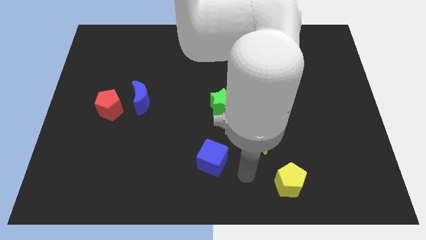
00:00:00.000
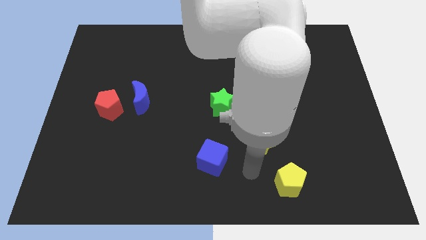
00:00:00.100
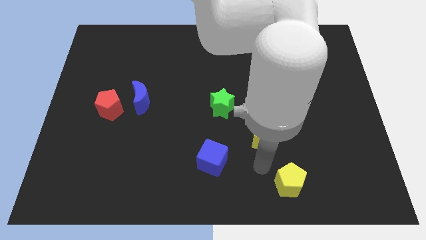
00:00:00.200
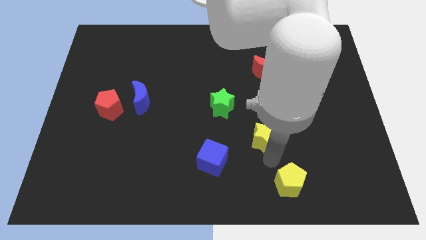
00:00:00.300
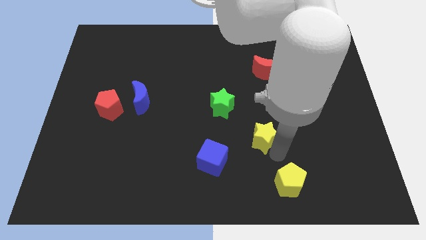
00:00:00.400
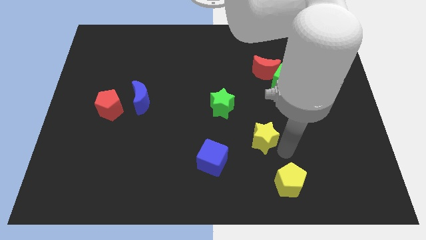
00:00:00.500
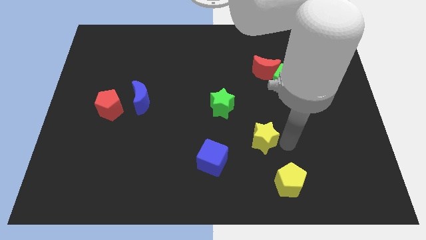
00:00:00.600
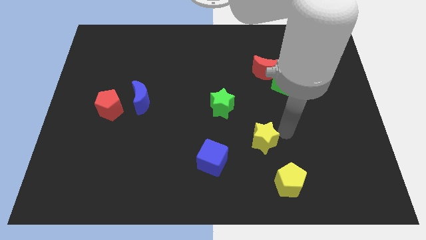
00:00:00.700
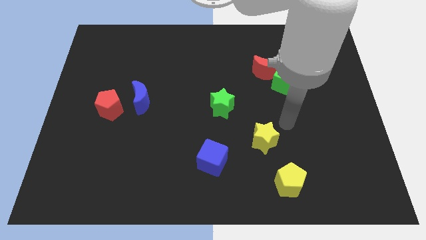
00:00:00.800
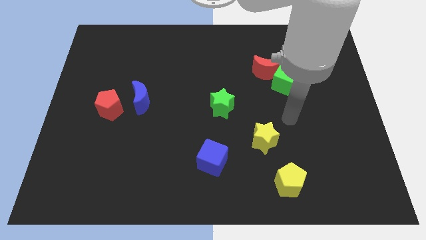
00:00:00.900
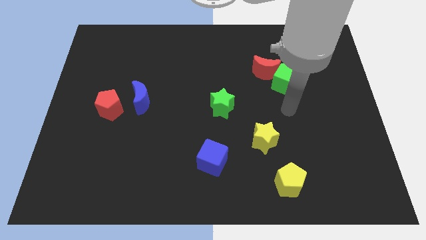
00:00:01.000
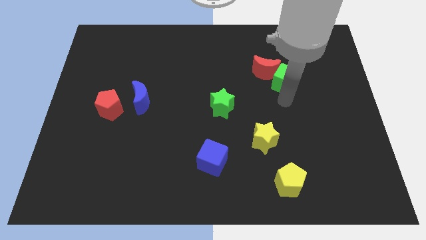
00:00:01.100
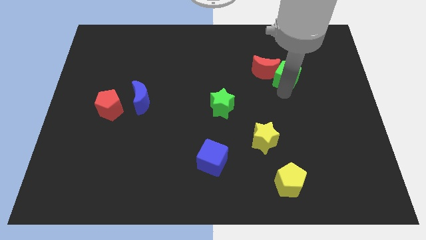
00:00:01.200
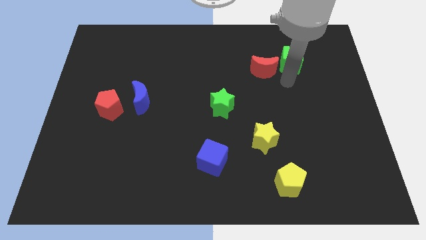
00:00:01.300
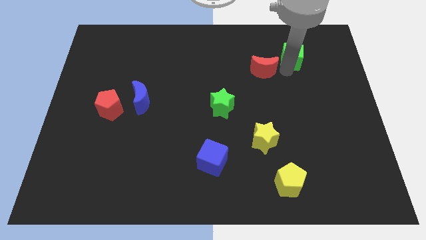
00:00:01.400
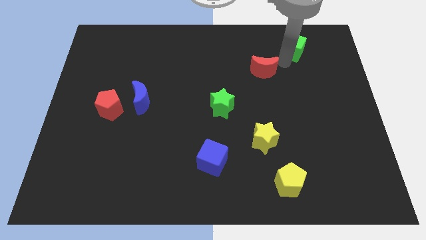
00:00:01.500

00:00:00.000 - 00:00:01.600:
pull the red moon apart from the green cube

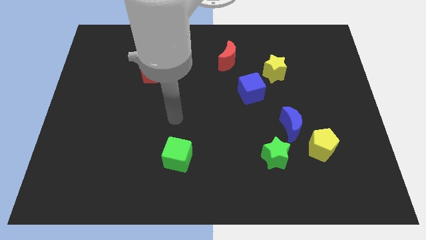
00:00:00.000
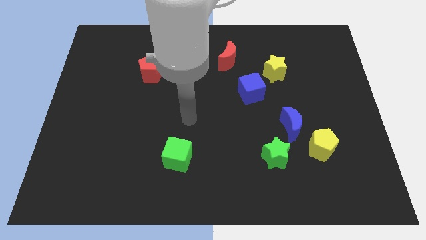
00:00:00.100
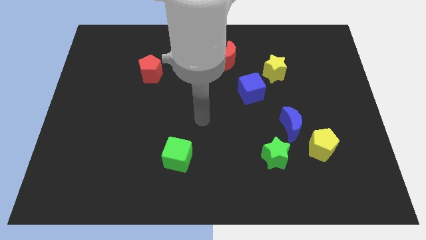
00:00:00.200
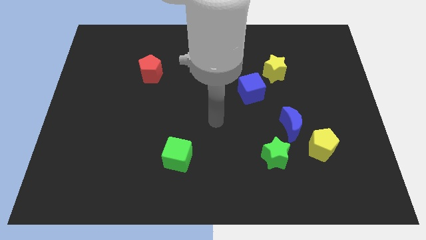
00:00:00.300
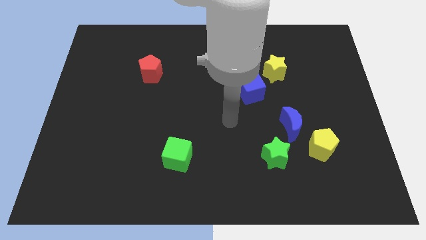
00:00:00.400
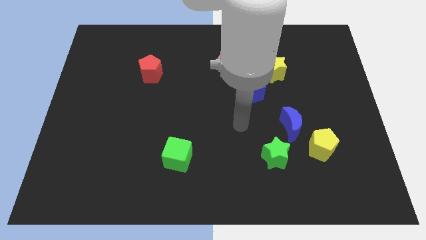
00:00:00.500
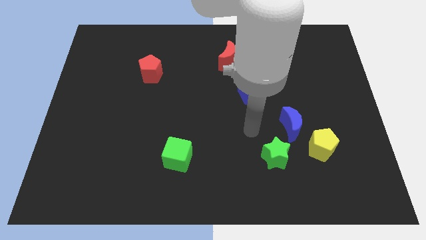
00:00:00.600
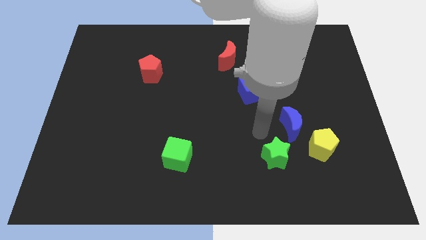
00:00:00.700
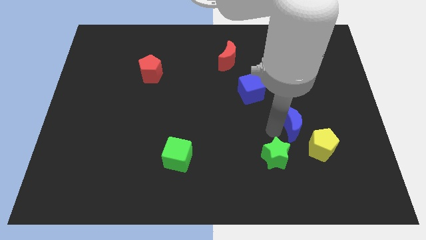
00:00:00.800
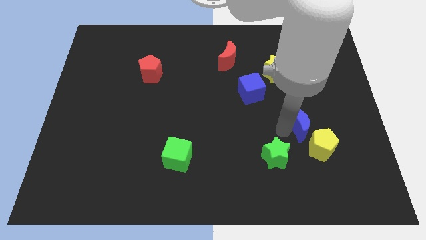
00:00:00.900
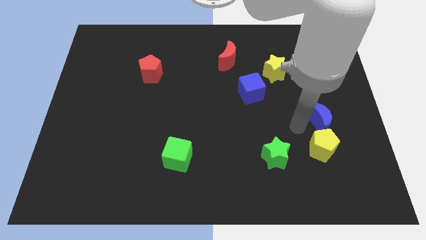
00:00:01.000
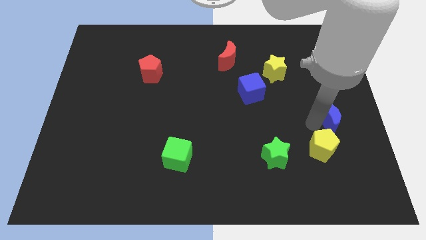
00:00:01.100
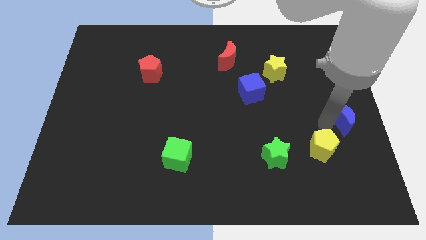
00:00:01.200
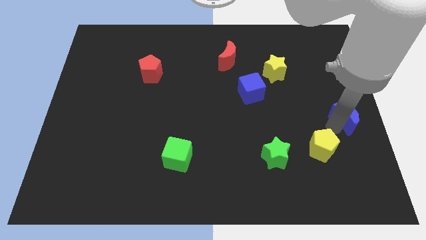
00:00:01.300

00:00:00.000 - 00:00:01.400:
pull the yellow pentagon apart from the blue moon

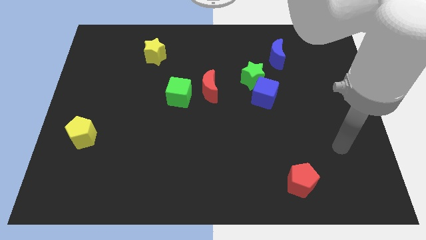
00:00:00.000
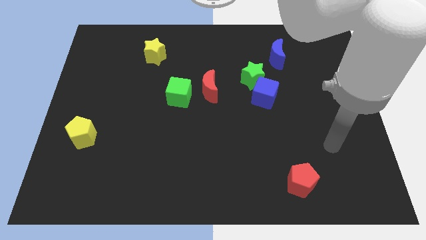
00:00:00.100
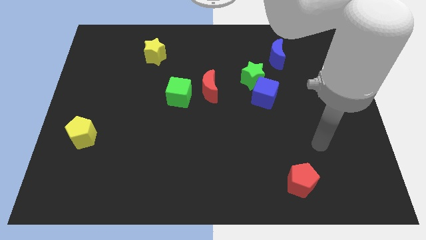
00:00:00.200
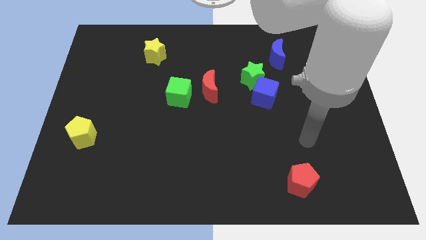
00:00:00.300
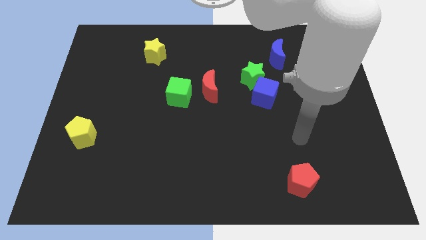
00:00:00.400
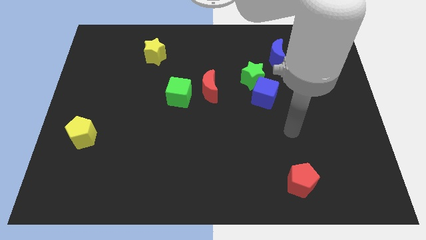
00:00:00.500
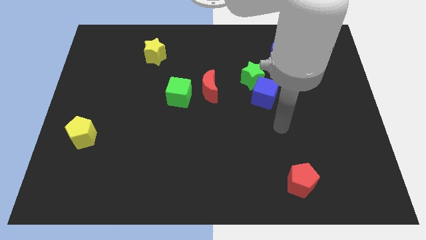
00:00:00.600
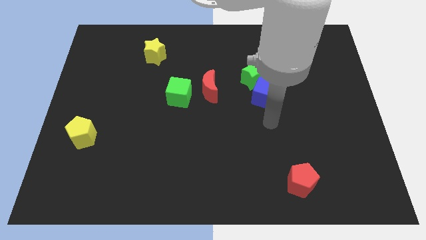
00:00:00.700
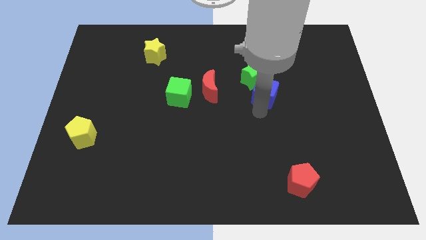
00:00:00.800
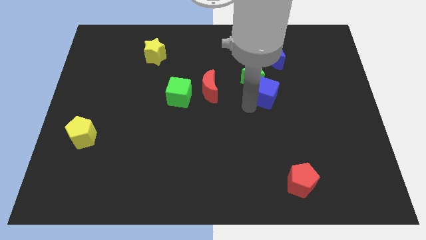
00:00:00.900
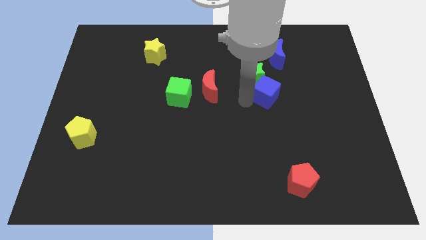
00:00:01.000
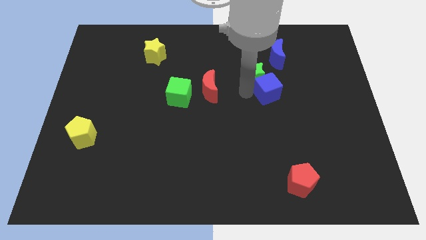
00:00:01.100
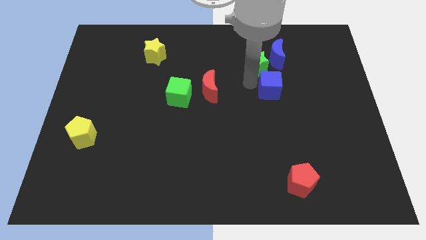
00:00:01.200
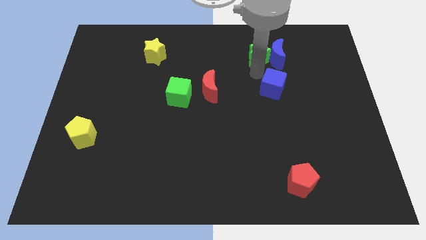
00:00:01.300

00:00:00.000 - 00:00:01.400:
move the blue cube away from the green star

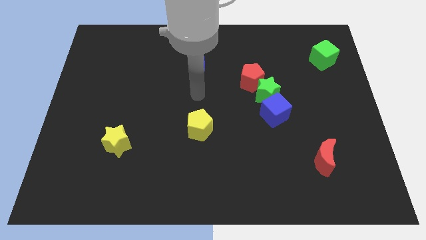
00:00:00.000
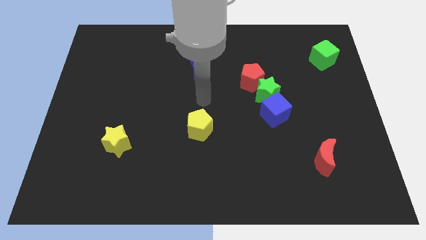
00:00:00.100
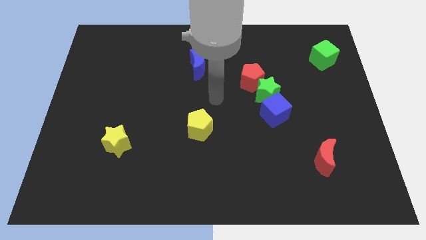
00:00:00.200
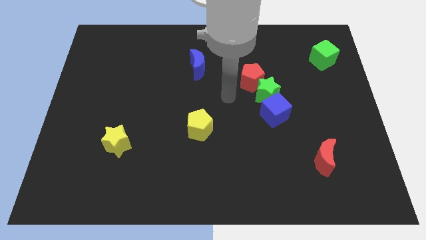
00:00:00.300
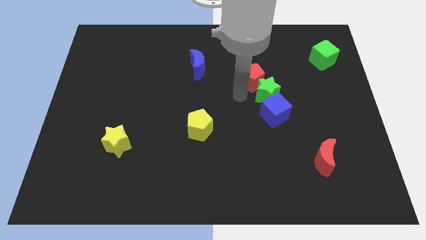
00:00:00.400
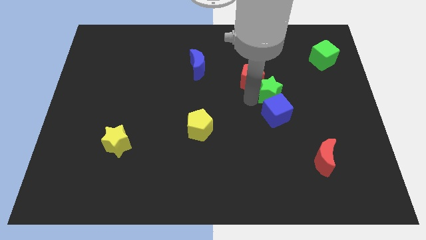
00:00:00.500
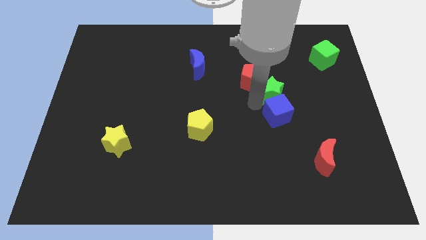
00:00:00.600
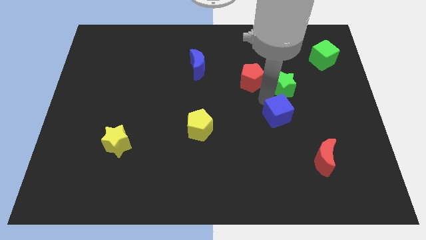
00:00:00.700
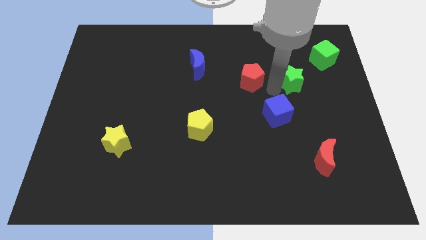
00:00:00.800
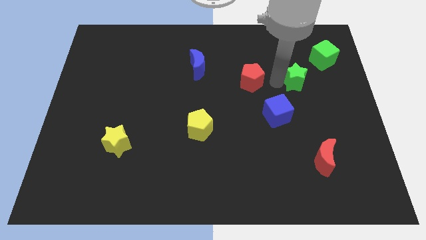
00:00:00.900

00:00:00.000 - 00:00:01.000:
separate the red pentagon from the green star

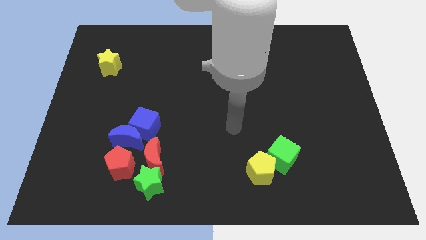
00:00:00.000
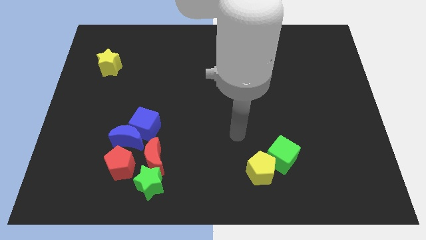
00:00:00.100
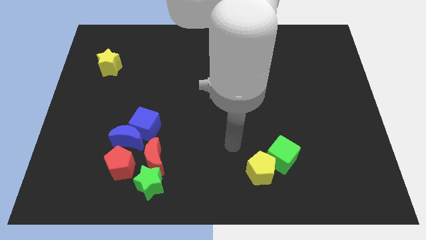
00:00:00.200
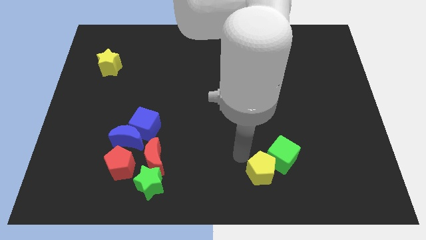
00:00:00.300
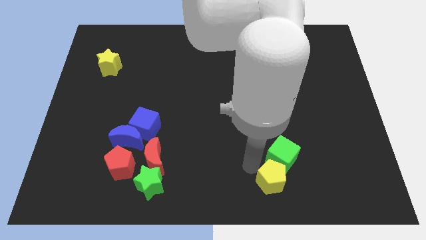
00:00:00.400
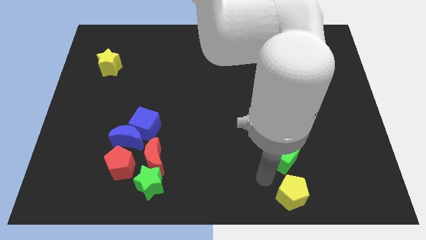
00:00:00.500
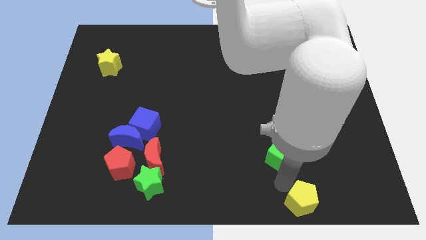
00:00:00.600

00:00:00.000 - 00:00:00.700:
pull the green cube apart from the yellow pentagon

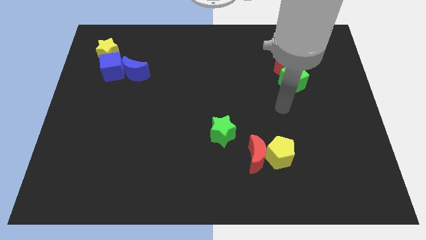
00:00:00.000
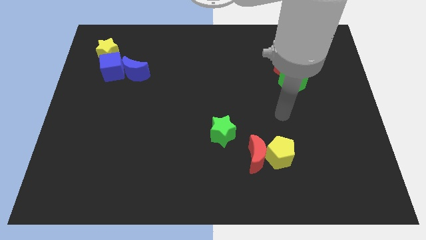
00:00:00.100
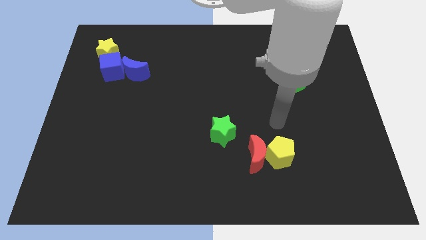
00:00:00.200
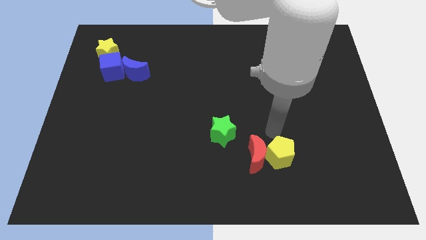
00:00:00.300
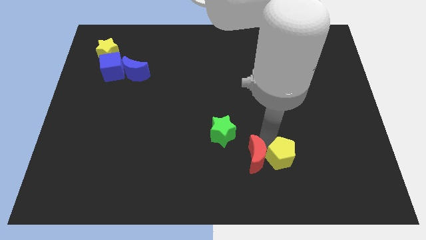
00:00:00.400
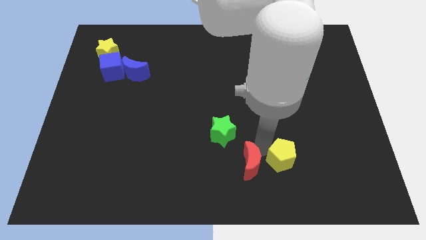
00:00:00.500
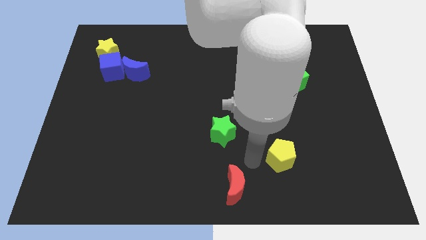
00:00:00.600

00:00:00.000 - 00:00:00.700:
move the yellow pentagon away from the red moon

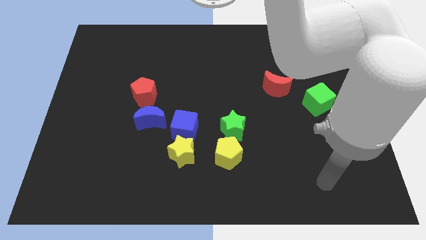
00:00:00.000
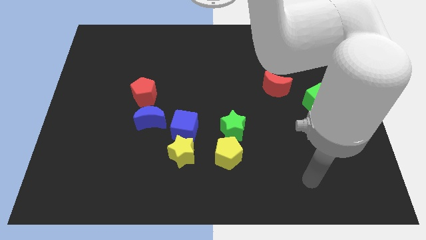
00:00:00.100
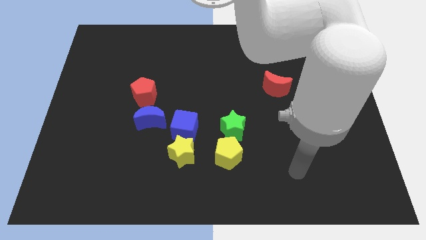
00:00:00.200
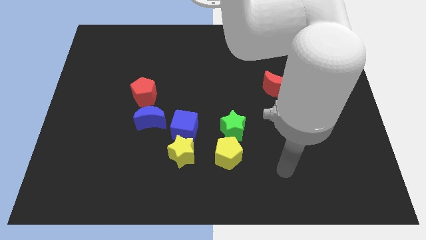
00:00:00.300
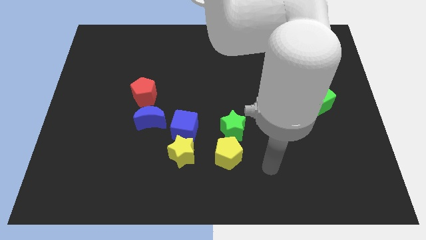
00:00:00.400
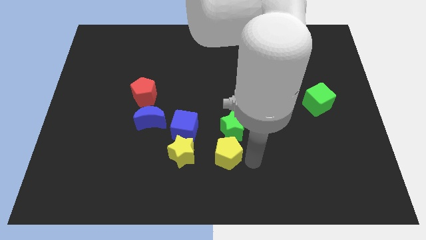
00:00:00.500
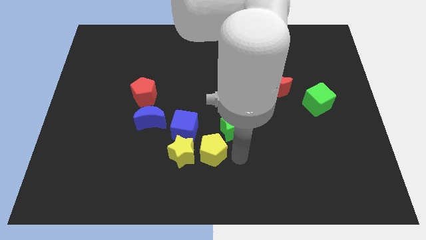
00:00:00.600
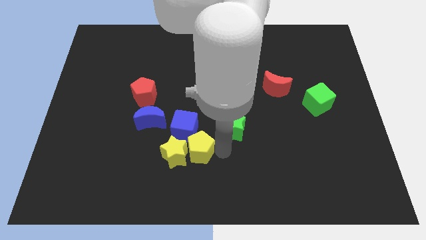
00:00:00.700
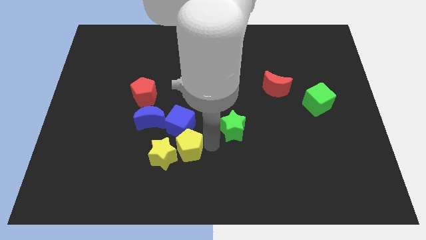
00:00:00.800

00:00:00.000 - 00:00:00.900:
pull the green star apart from the yellow pentagon

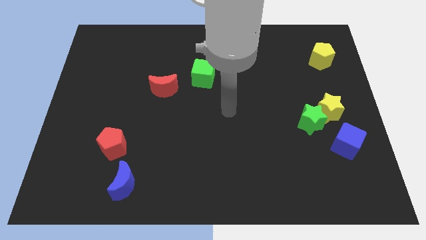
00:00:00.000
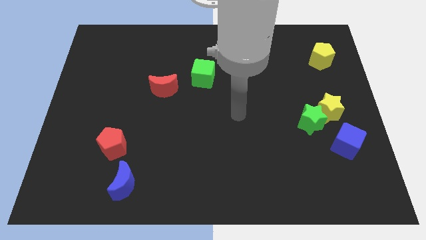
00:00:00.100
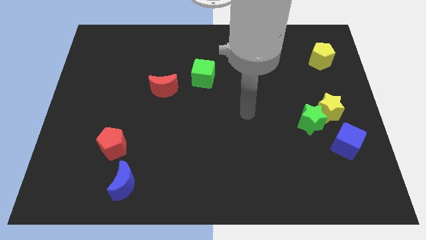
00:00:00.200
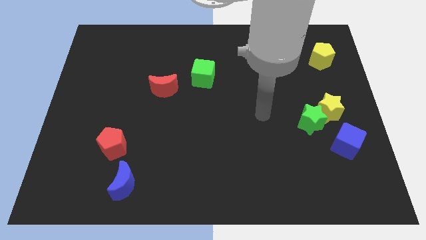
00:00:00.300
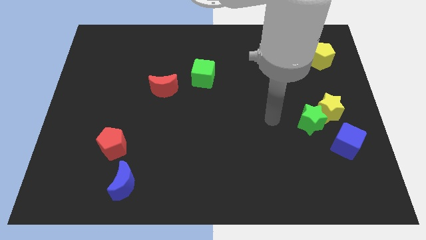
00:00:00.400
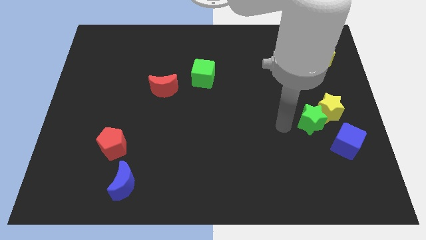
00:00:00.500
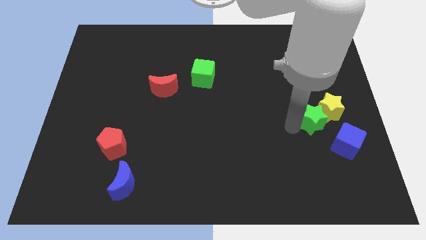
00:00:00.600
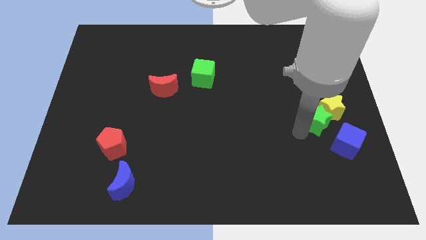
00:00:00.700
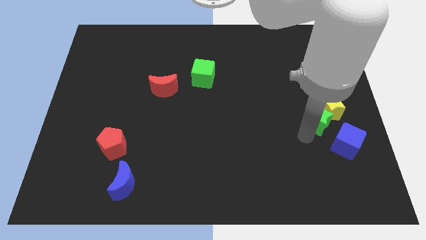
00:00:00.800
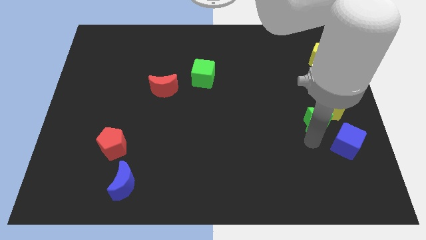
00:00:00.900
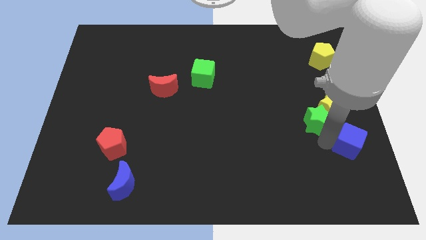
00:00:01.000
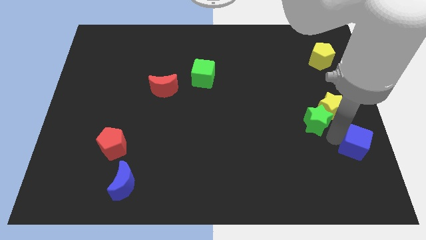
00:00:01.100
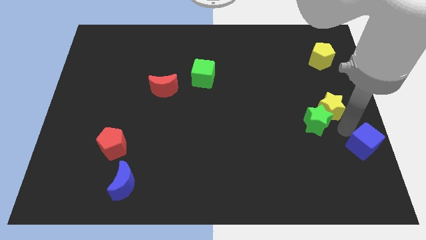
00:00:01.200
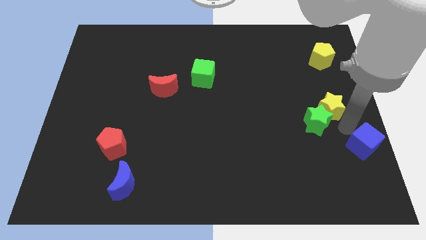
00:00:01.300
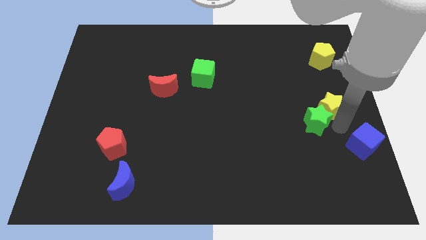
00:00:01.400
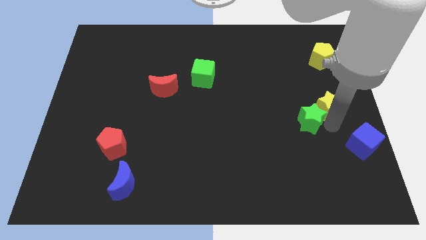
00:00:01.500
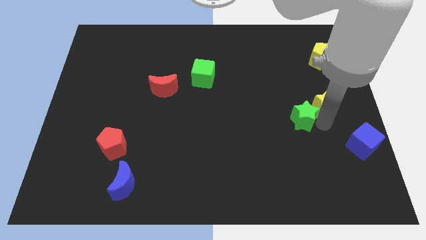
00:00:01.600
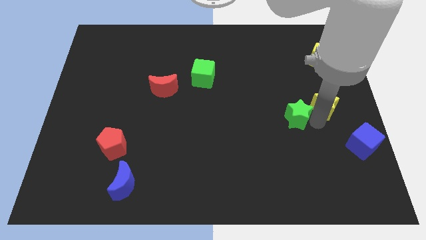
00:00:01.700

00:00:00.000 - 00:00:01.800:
move the green star away from the yellow star and blue cube

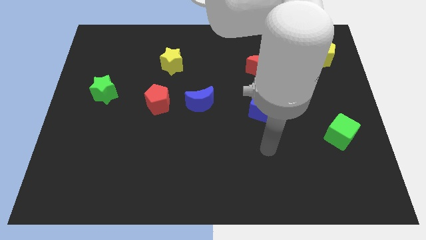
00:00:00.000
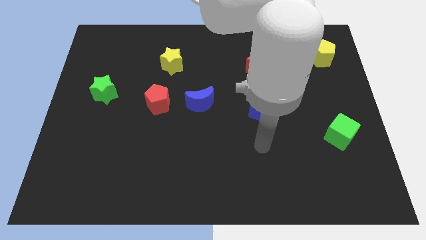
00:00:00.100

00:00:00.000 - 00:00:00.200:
separate the red pentagon from the blue moon
